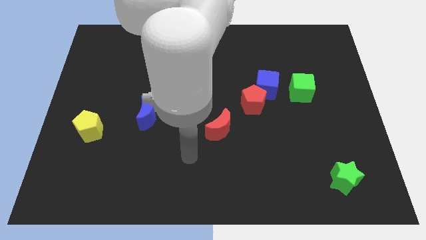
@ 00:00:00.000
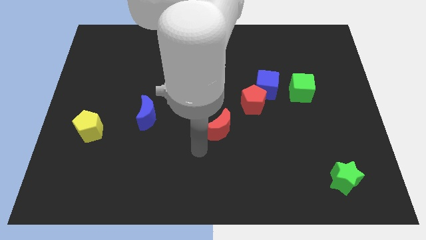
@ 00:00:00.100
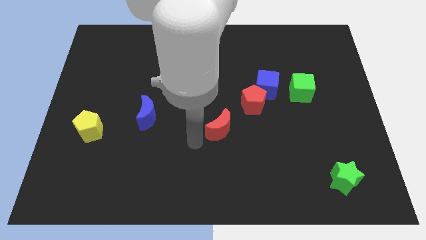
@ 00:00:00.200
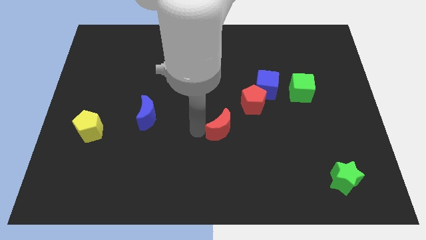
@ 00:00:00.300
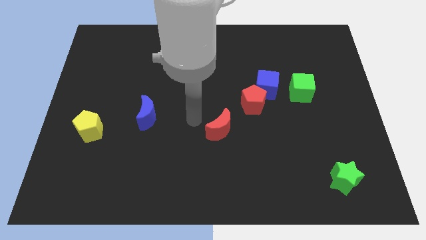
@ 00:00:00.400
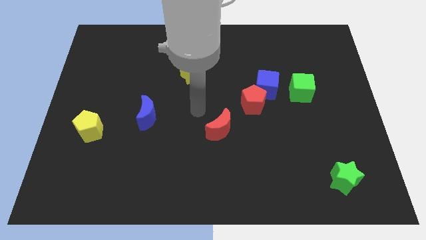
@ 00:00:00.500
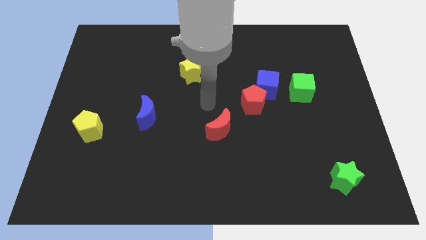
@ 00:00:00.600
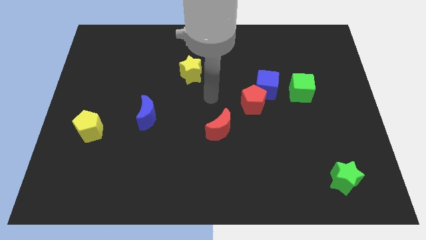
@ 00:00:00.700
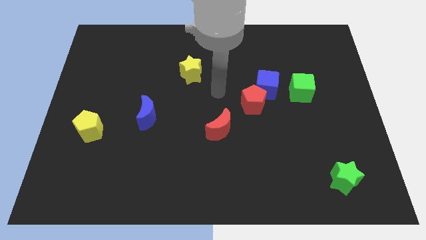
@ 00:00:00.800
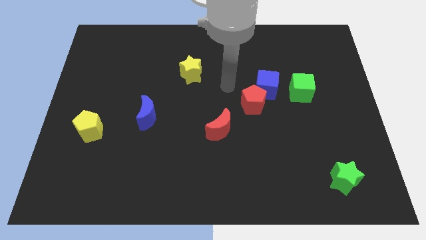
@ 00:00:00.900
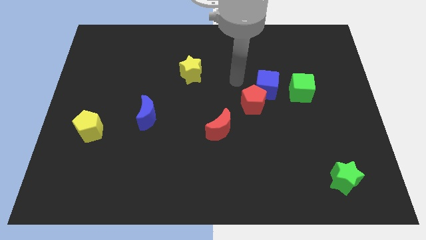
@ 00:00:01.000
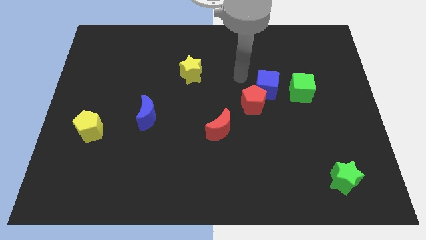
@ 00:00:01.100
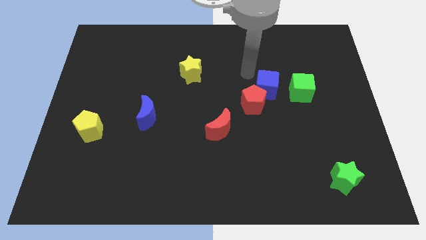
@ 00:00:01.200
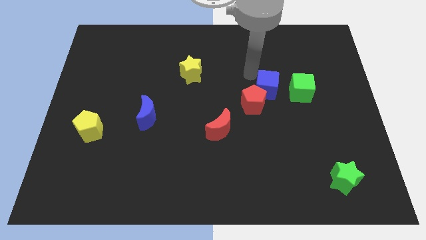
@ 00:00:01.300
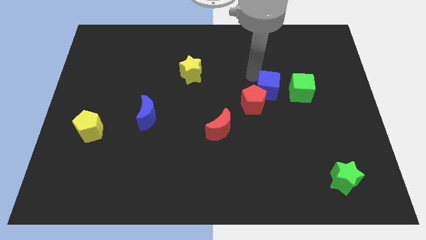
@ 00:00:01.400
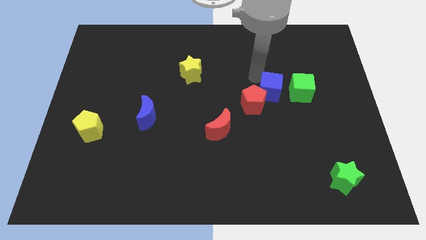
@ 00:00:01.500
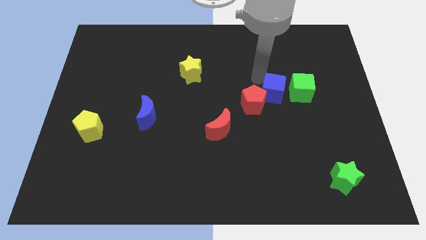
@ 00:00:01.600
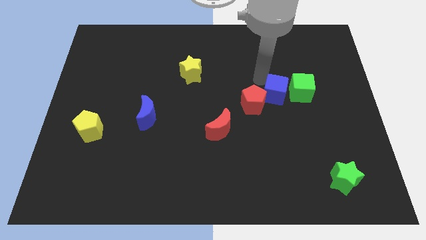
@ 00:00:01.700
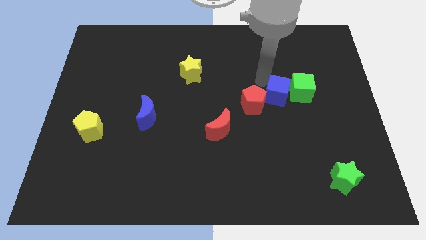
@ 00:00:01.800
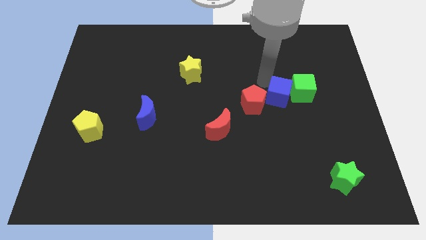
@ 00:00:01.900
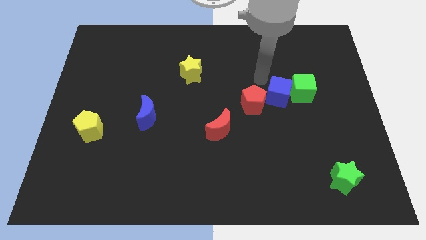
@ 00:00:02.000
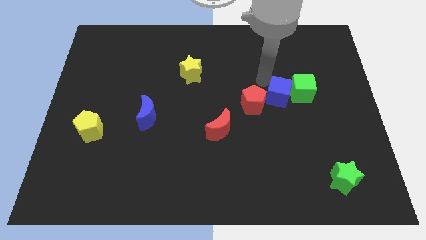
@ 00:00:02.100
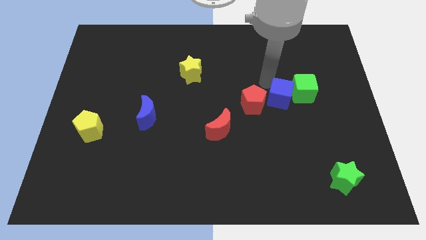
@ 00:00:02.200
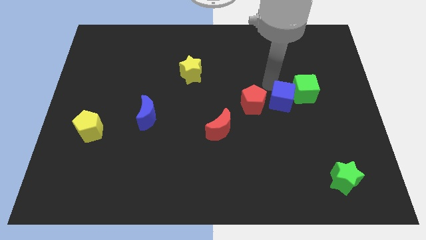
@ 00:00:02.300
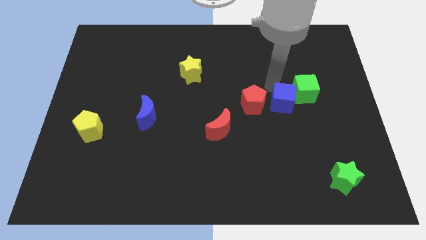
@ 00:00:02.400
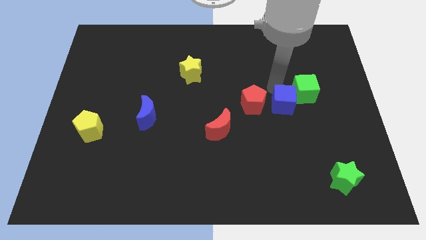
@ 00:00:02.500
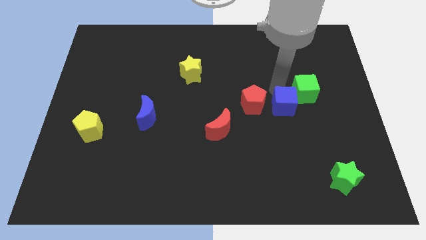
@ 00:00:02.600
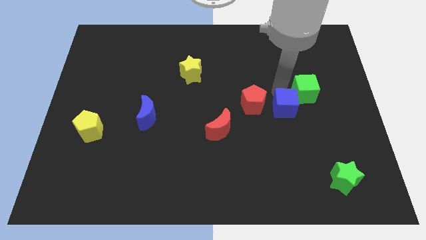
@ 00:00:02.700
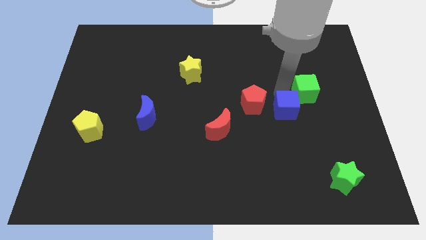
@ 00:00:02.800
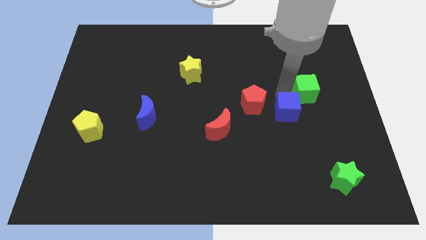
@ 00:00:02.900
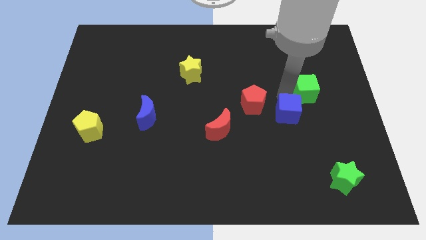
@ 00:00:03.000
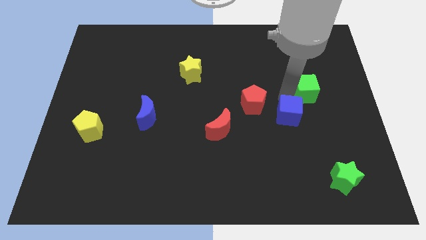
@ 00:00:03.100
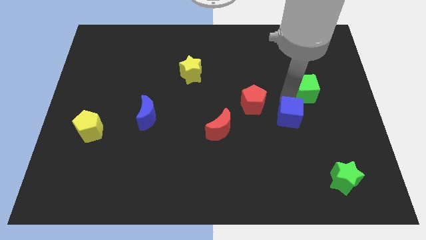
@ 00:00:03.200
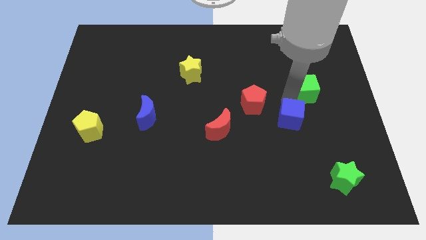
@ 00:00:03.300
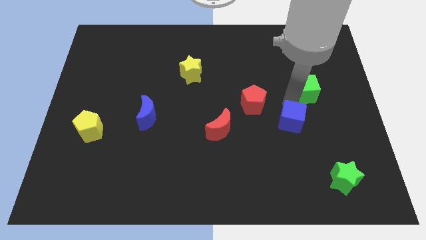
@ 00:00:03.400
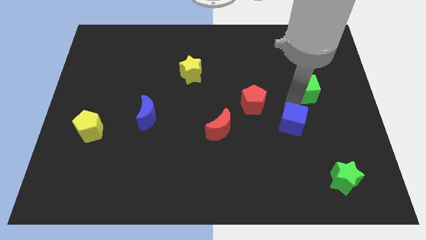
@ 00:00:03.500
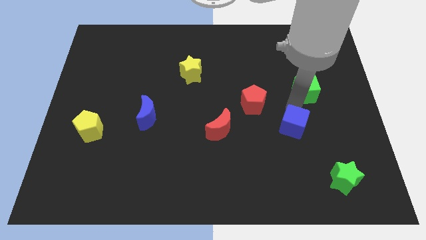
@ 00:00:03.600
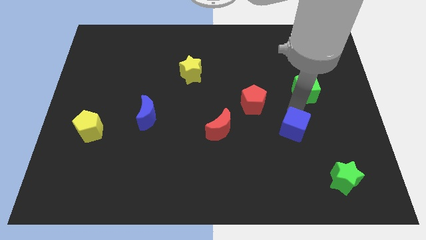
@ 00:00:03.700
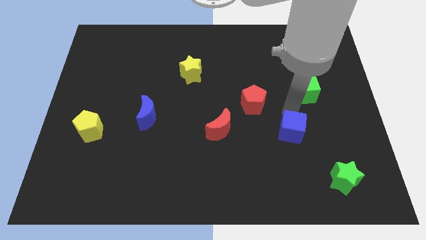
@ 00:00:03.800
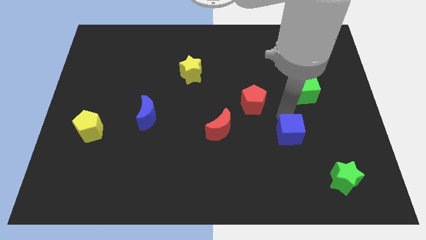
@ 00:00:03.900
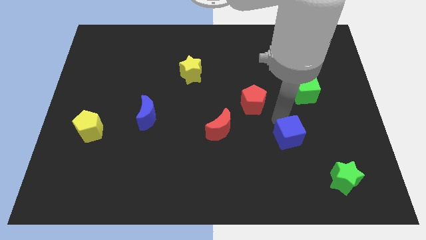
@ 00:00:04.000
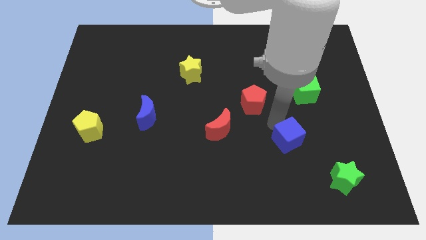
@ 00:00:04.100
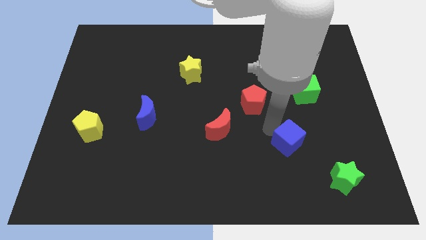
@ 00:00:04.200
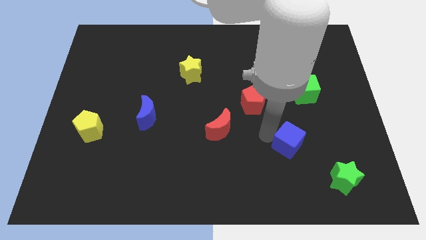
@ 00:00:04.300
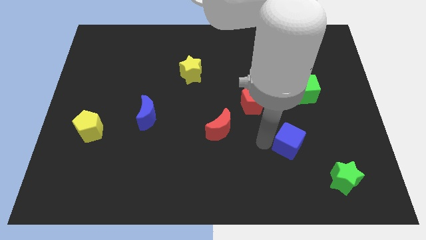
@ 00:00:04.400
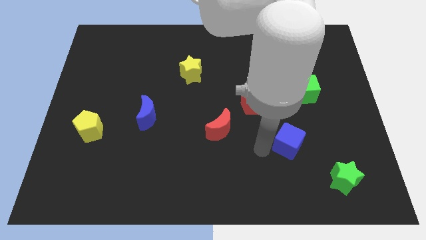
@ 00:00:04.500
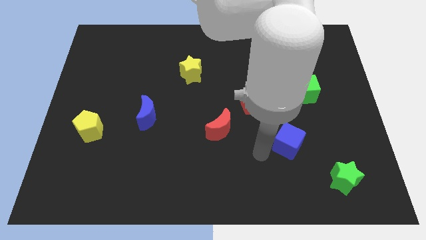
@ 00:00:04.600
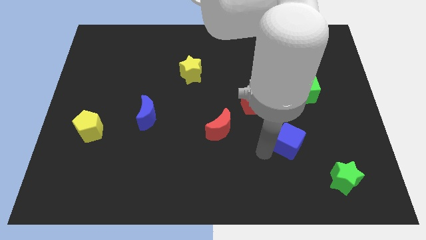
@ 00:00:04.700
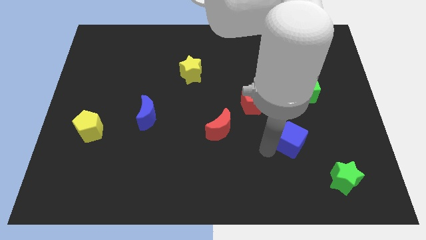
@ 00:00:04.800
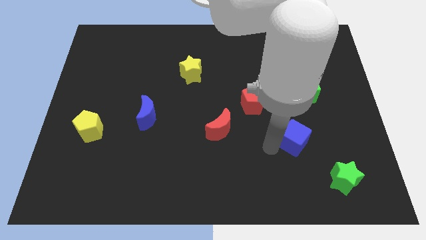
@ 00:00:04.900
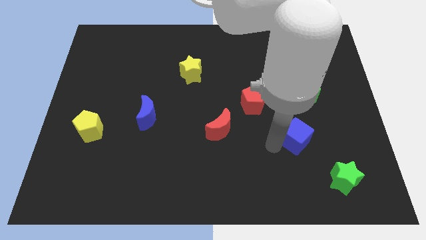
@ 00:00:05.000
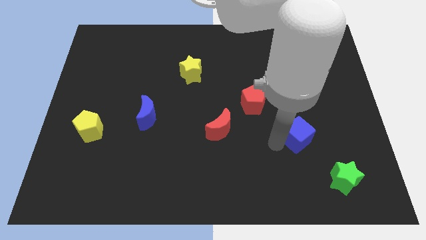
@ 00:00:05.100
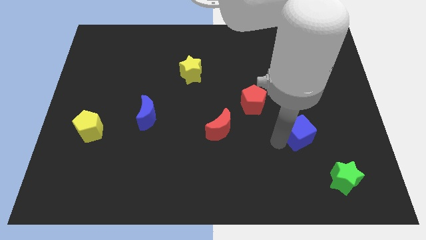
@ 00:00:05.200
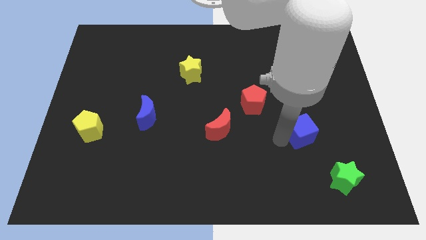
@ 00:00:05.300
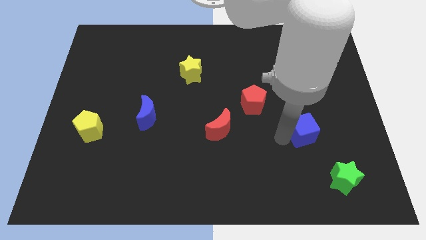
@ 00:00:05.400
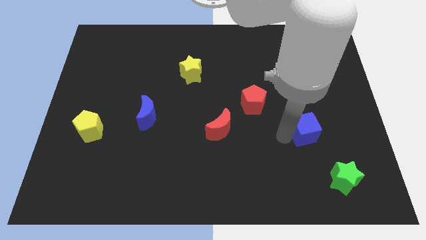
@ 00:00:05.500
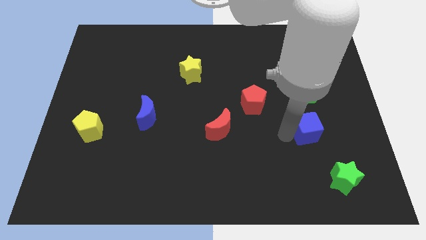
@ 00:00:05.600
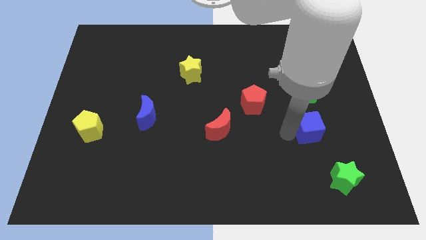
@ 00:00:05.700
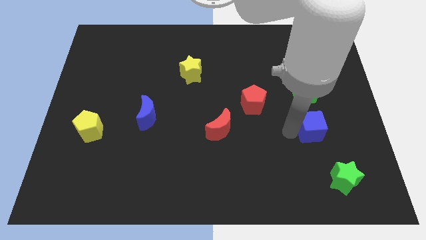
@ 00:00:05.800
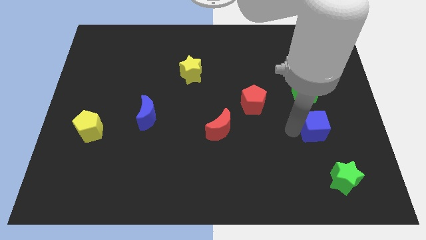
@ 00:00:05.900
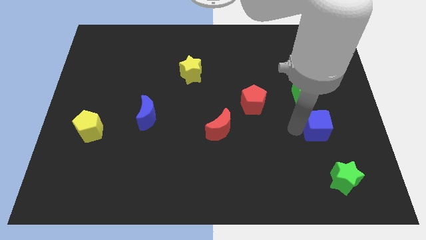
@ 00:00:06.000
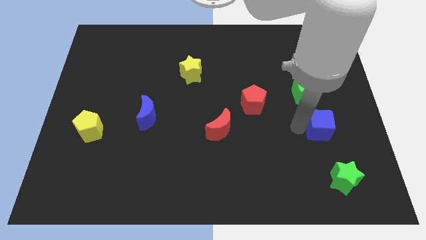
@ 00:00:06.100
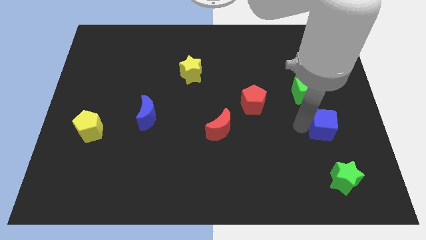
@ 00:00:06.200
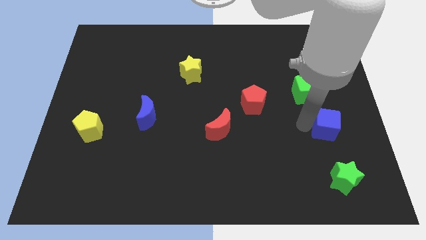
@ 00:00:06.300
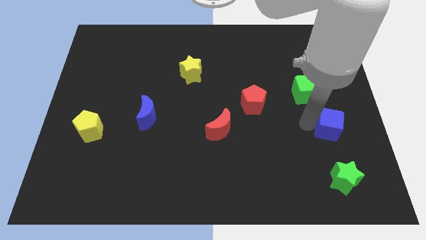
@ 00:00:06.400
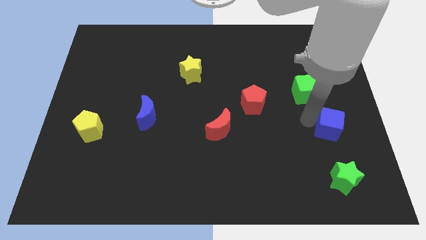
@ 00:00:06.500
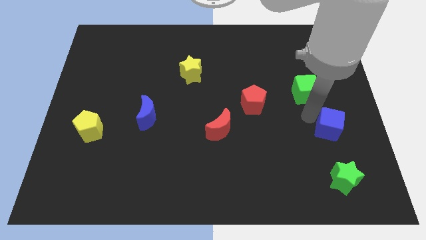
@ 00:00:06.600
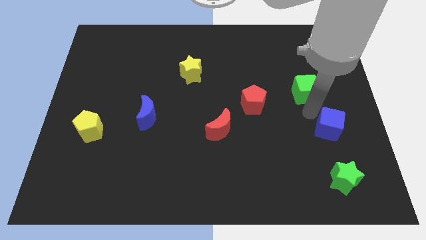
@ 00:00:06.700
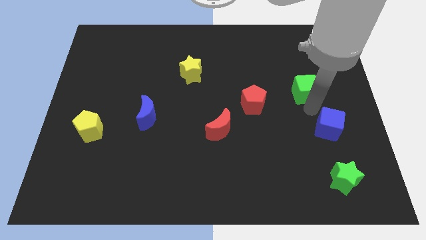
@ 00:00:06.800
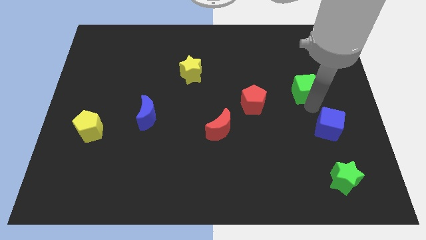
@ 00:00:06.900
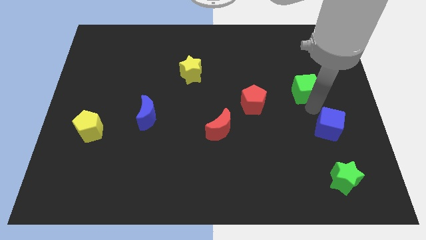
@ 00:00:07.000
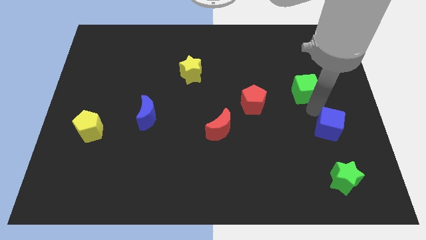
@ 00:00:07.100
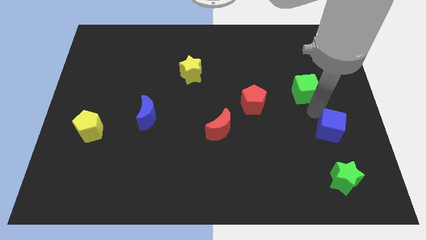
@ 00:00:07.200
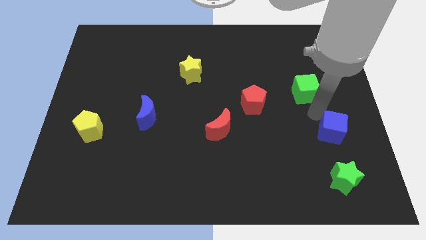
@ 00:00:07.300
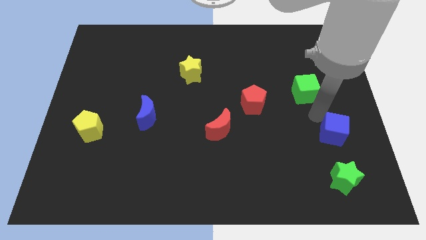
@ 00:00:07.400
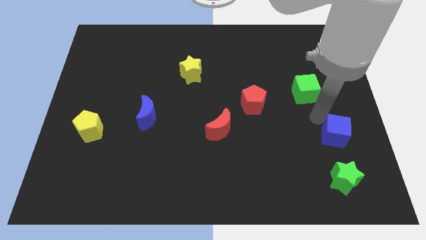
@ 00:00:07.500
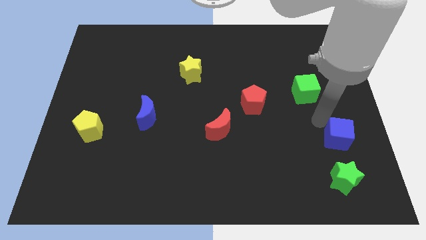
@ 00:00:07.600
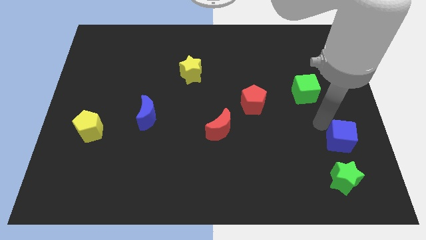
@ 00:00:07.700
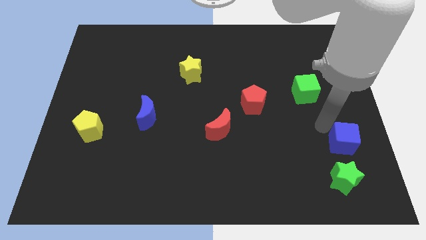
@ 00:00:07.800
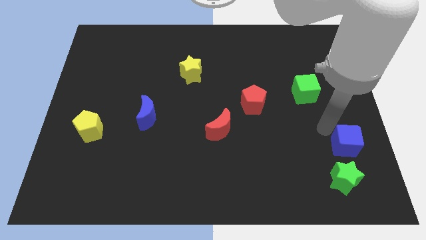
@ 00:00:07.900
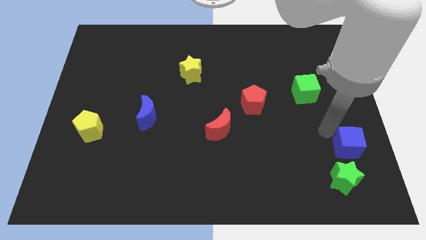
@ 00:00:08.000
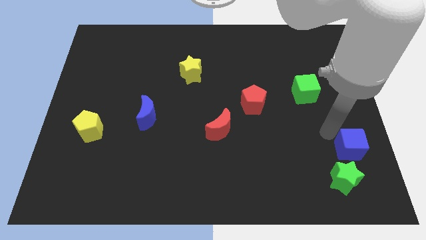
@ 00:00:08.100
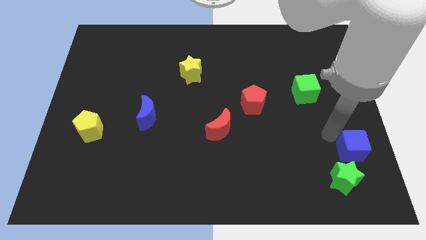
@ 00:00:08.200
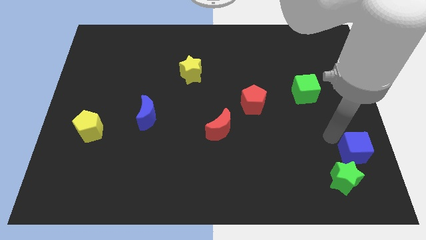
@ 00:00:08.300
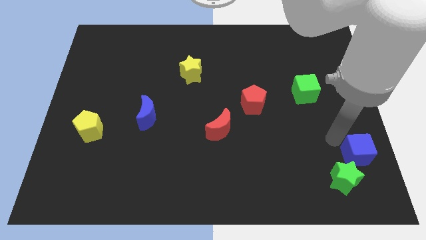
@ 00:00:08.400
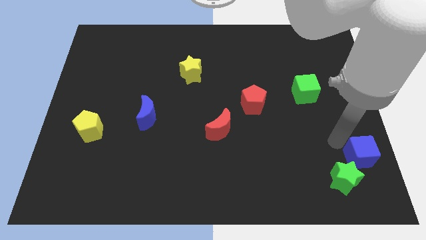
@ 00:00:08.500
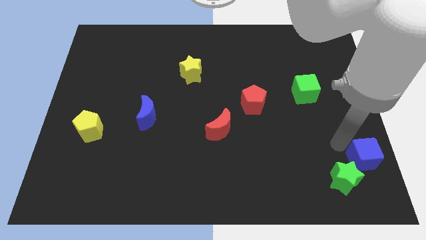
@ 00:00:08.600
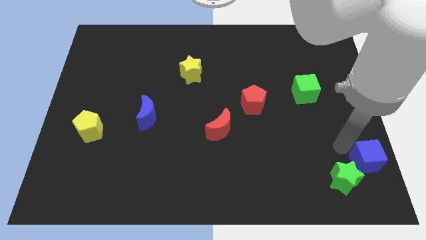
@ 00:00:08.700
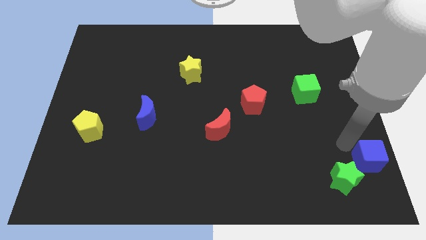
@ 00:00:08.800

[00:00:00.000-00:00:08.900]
move the blue cube to the bottom right of the board
